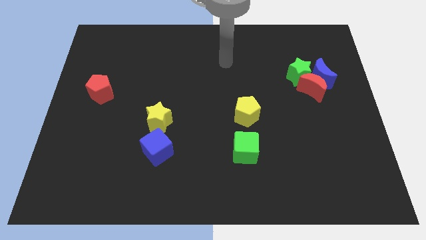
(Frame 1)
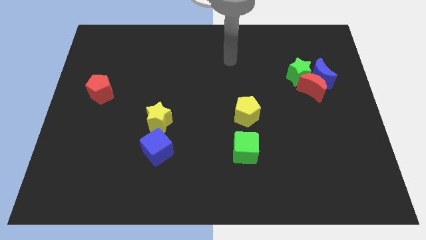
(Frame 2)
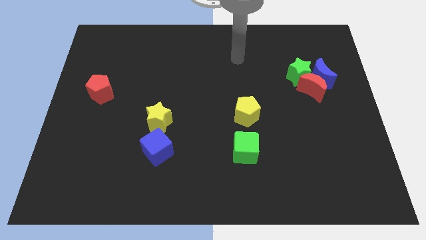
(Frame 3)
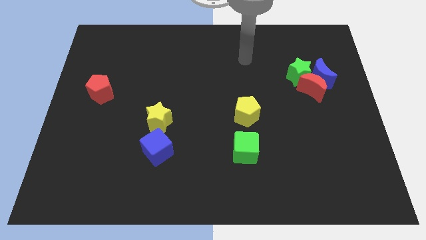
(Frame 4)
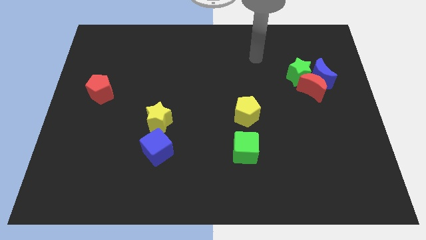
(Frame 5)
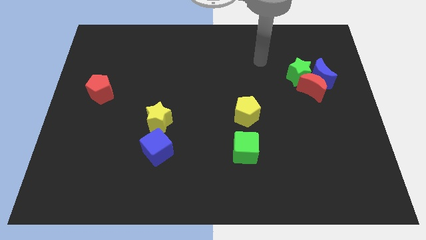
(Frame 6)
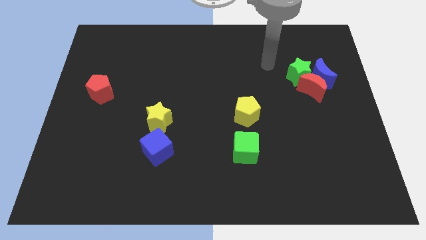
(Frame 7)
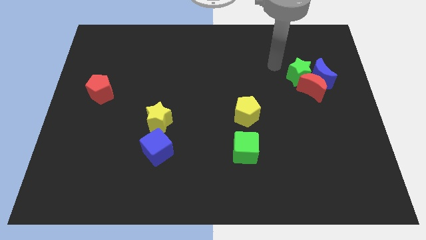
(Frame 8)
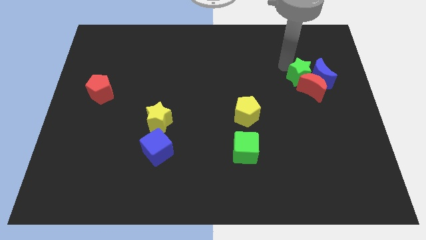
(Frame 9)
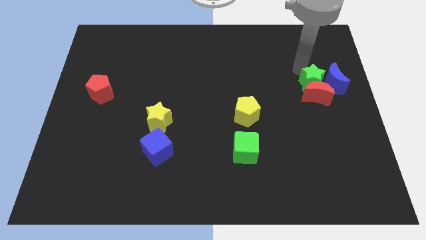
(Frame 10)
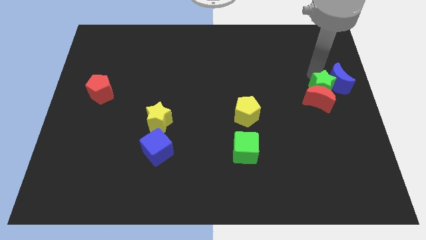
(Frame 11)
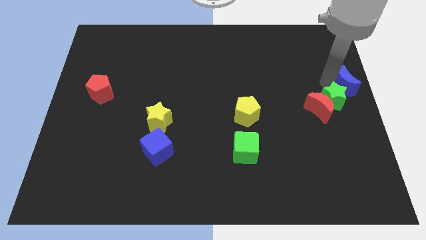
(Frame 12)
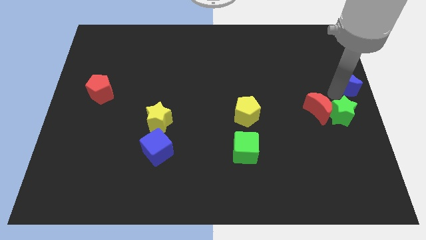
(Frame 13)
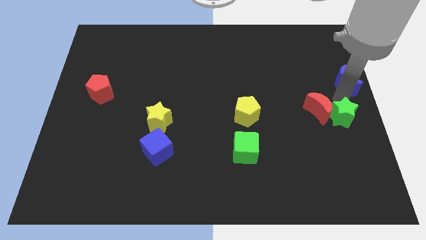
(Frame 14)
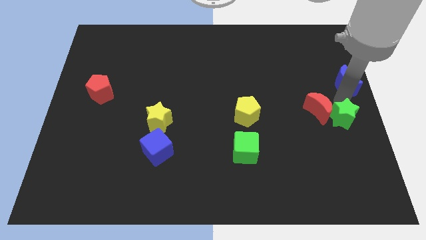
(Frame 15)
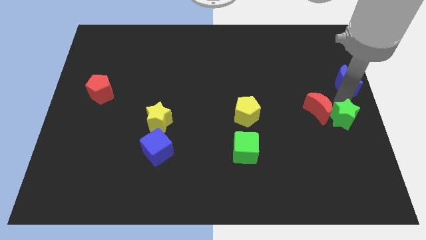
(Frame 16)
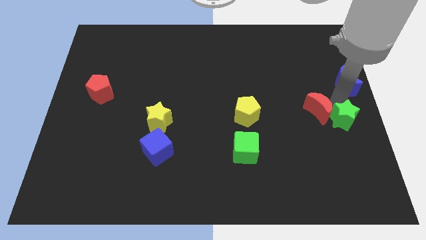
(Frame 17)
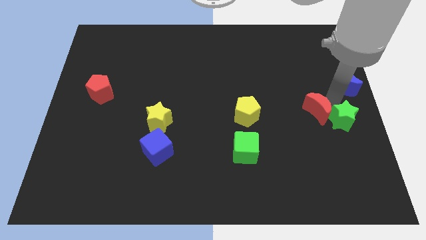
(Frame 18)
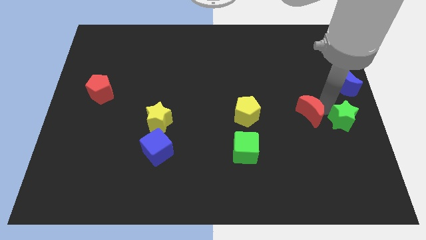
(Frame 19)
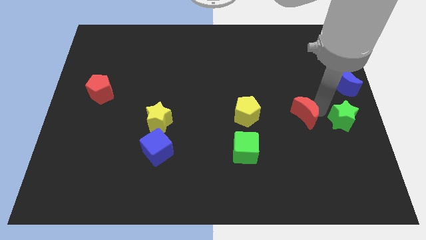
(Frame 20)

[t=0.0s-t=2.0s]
move the red moon away from the blue moon and green star

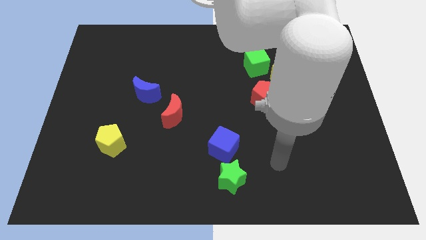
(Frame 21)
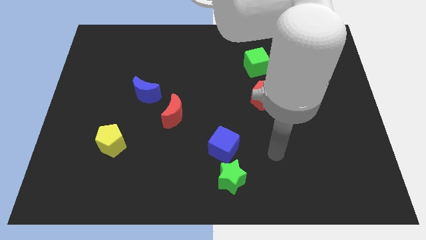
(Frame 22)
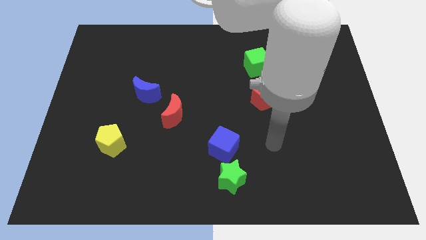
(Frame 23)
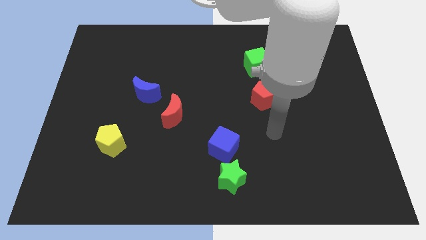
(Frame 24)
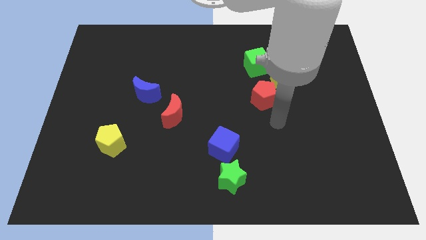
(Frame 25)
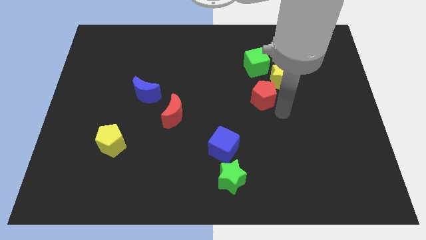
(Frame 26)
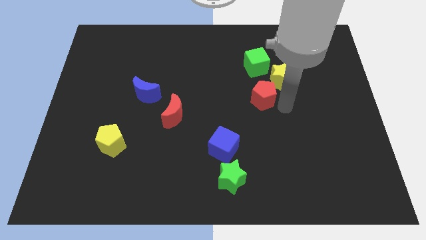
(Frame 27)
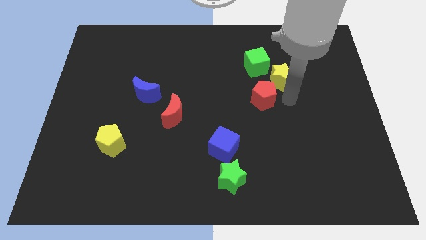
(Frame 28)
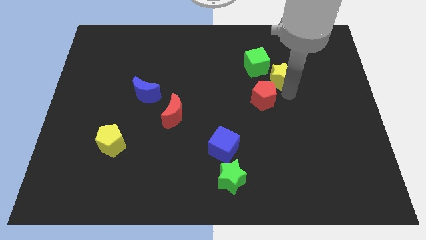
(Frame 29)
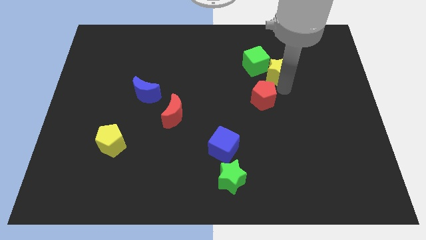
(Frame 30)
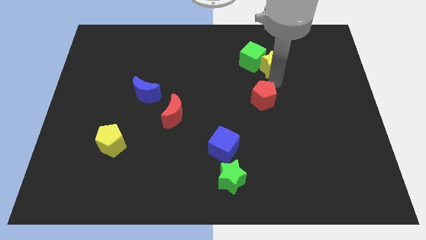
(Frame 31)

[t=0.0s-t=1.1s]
pull the red pentagon apart from the yellow star

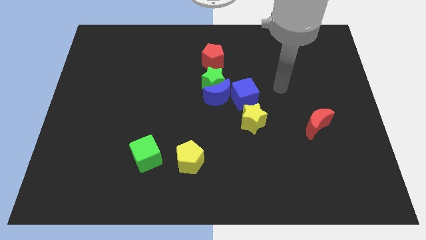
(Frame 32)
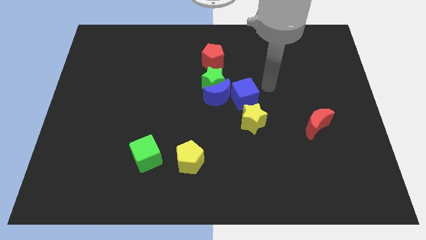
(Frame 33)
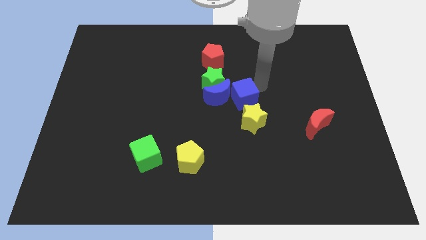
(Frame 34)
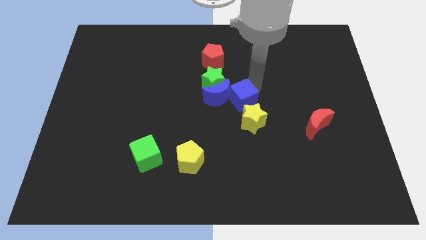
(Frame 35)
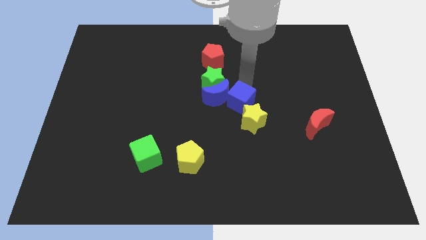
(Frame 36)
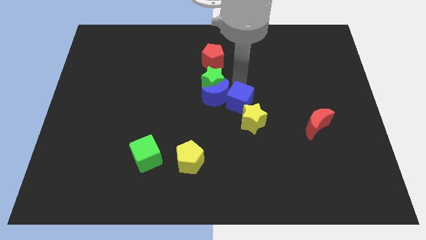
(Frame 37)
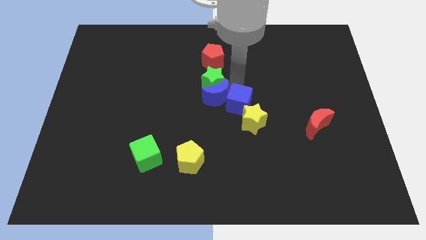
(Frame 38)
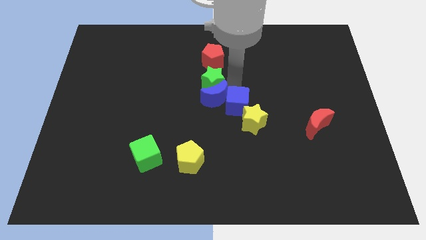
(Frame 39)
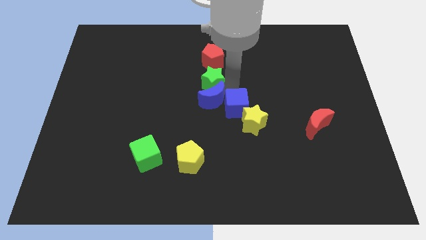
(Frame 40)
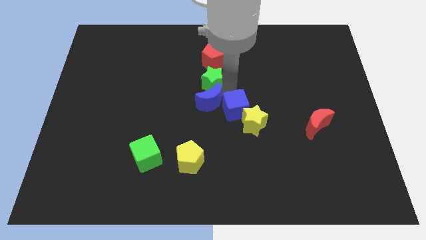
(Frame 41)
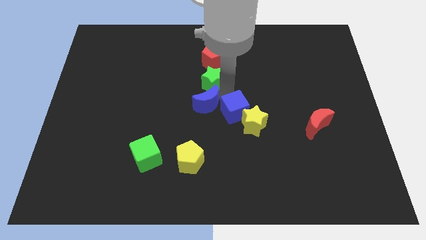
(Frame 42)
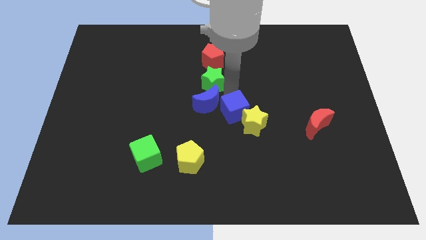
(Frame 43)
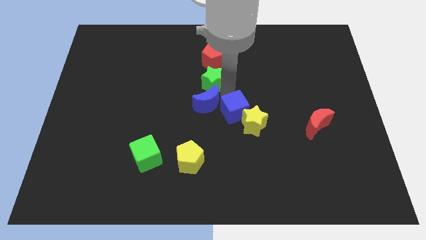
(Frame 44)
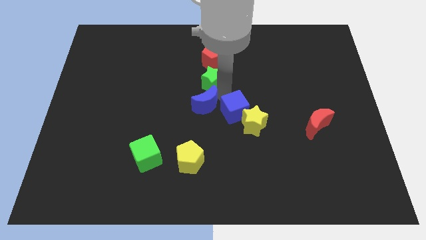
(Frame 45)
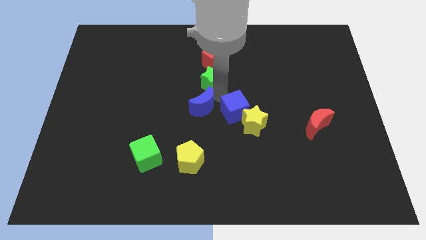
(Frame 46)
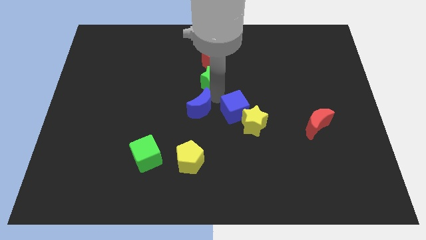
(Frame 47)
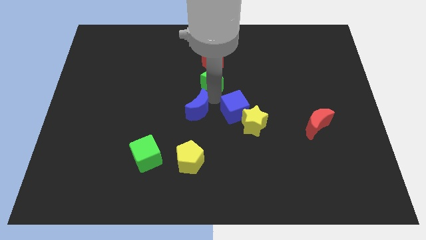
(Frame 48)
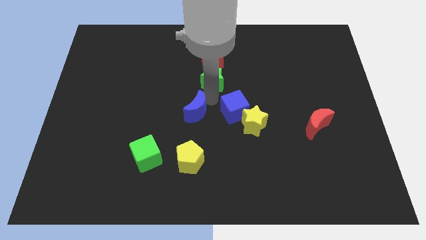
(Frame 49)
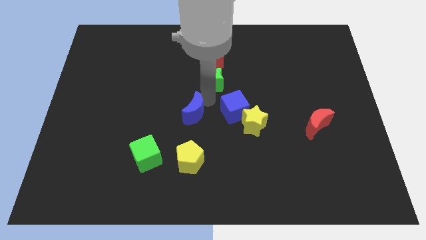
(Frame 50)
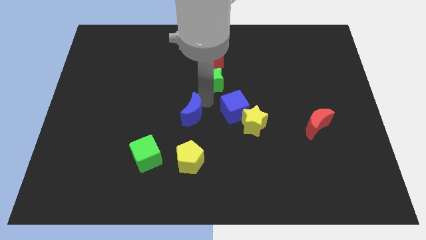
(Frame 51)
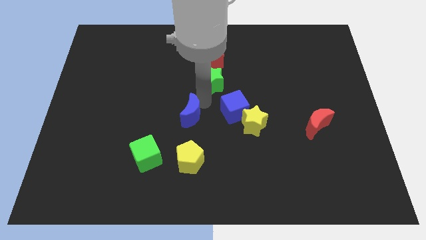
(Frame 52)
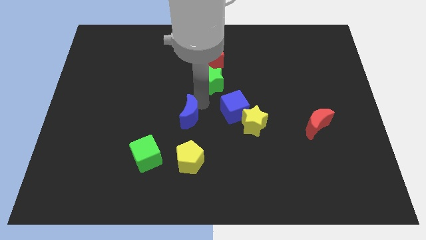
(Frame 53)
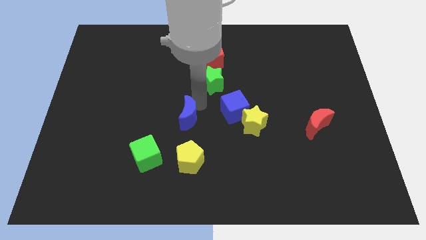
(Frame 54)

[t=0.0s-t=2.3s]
pull the blue moon apart from the green star and blue cube

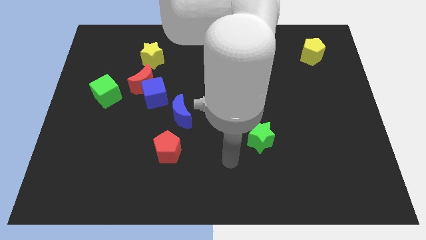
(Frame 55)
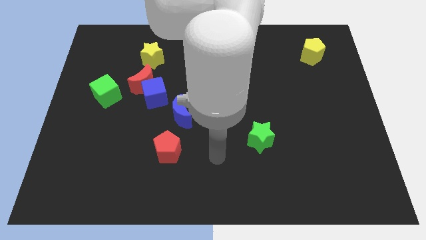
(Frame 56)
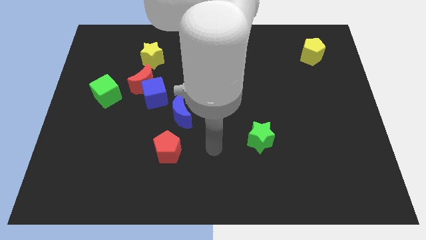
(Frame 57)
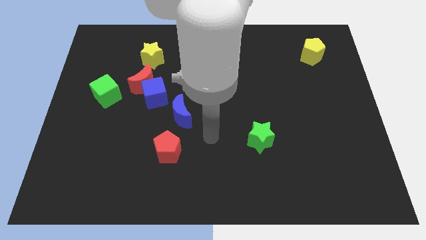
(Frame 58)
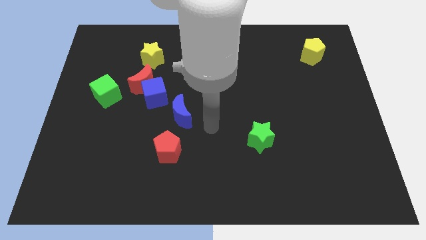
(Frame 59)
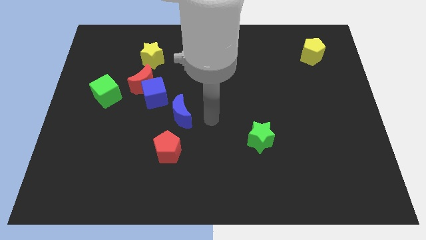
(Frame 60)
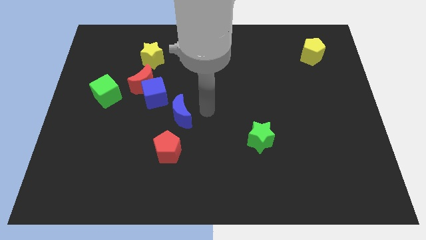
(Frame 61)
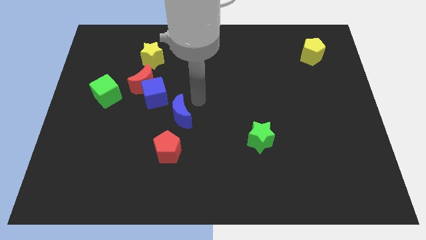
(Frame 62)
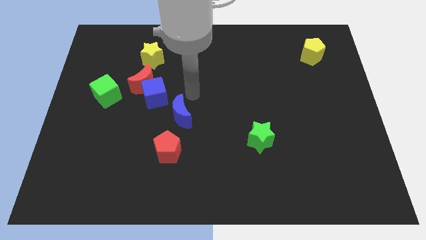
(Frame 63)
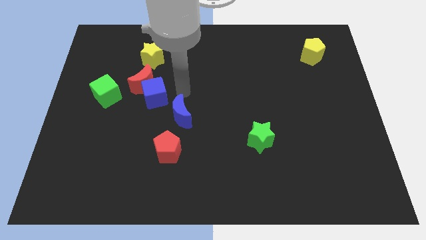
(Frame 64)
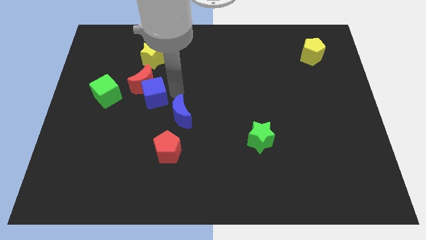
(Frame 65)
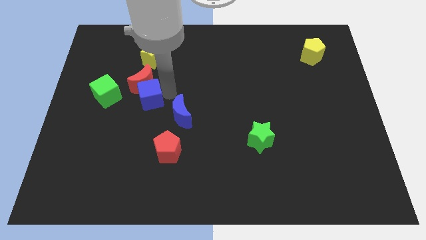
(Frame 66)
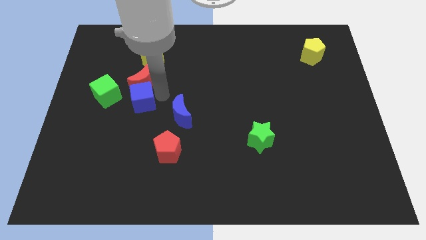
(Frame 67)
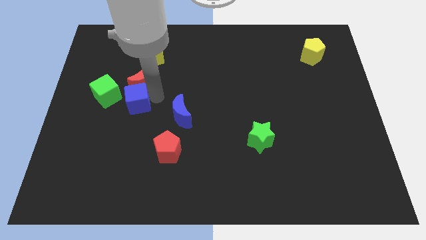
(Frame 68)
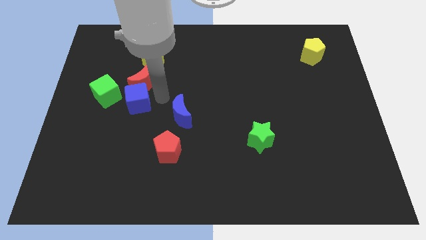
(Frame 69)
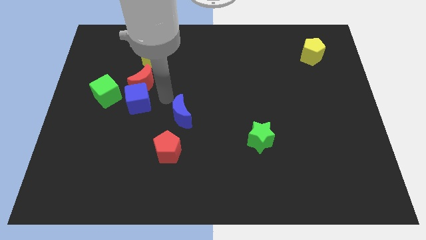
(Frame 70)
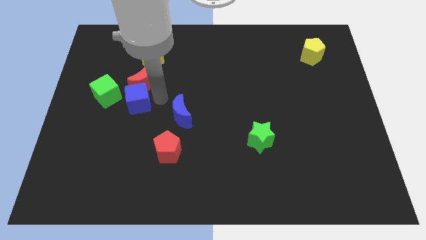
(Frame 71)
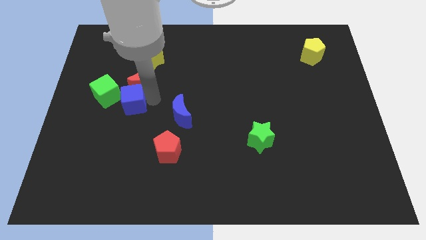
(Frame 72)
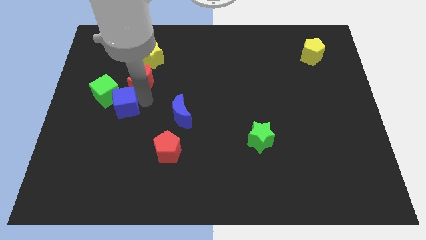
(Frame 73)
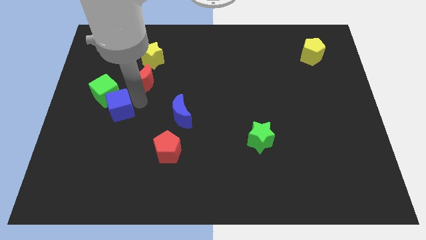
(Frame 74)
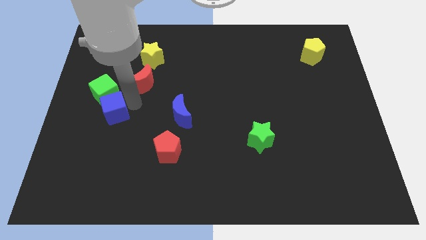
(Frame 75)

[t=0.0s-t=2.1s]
pull the blue cube apart from the red moon and blue moon

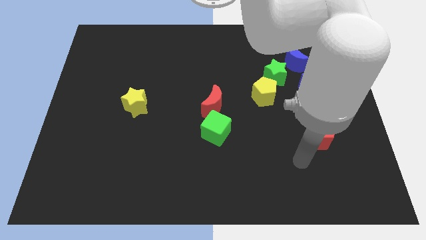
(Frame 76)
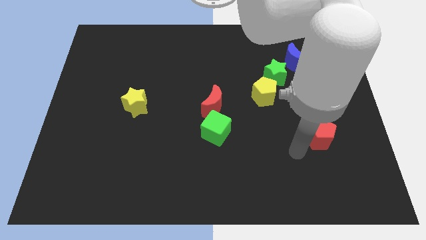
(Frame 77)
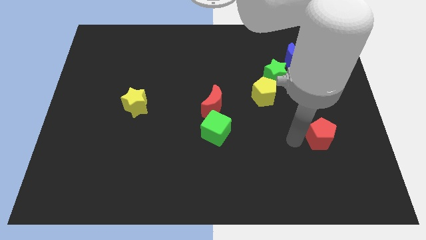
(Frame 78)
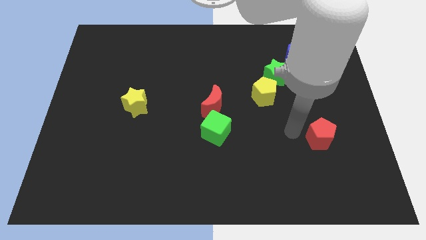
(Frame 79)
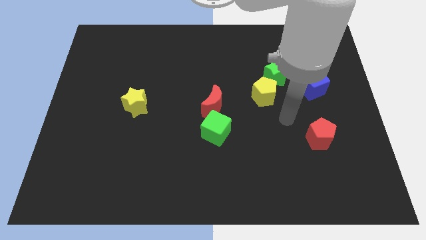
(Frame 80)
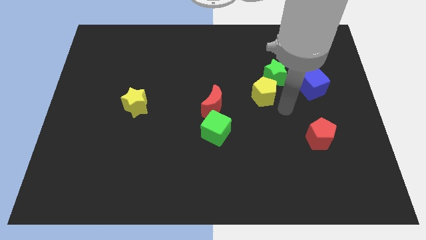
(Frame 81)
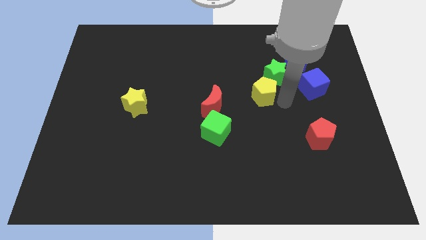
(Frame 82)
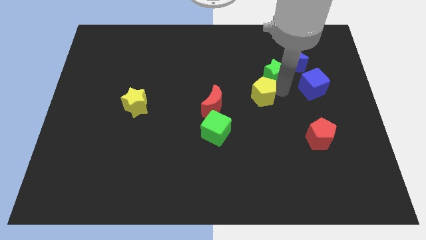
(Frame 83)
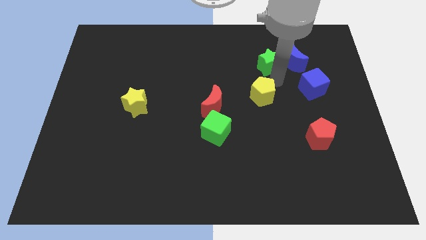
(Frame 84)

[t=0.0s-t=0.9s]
separate the yellow pentagon from the green star

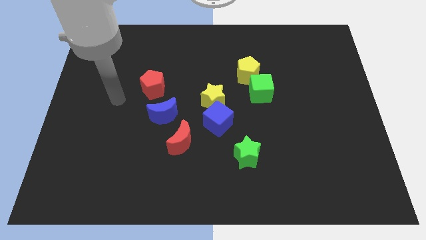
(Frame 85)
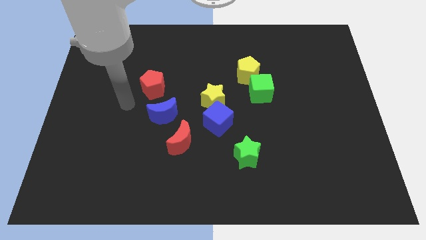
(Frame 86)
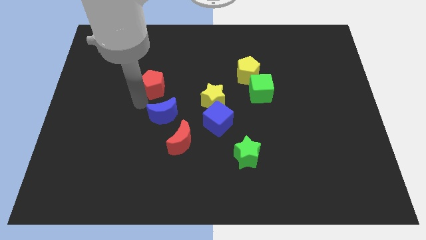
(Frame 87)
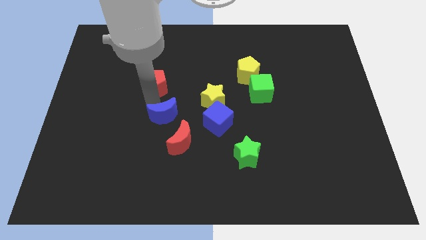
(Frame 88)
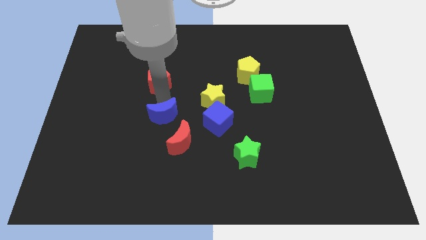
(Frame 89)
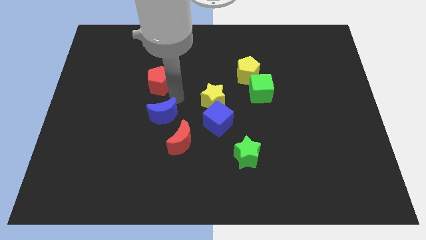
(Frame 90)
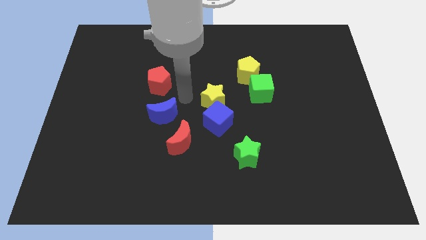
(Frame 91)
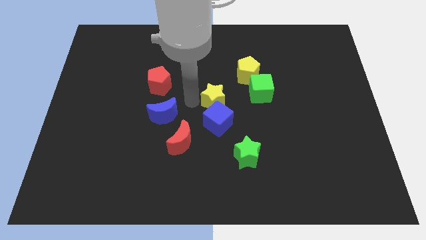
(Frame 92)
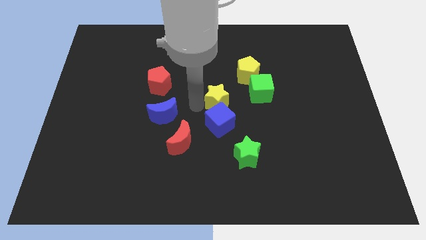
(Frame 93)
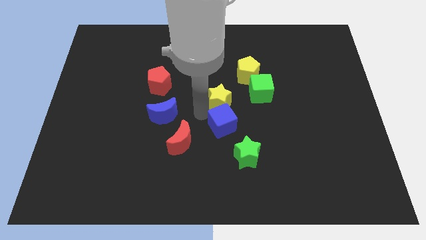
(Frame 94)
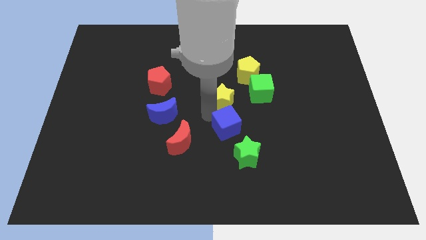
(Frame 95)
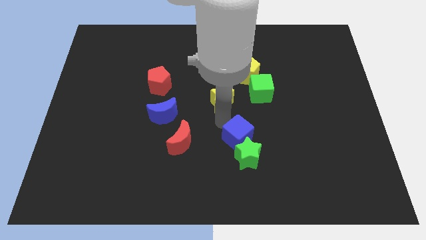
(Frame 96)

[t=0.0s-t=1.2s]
separate the yellow star from the blue cube
